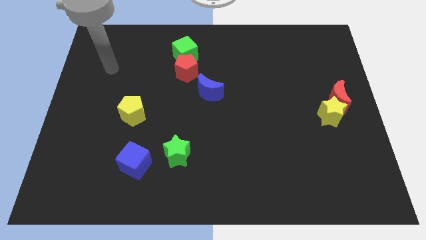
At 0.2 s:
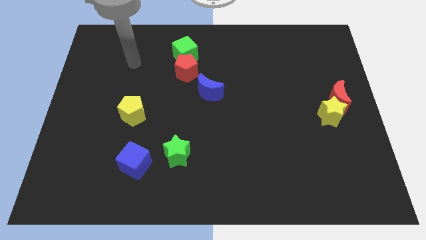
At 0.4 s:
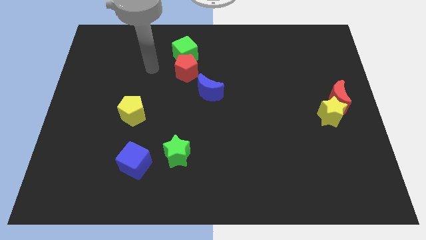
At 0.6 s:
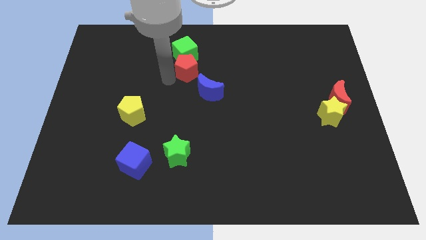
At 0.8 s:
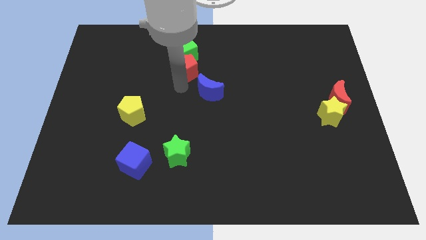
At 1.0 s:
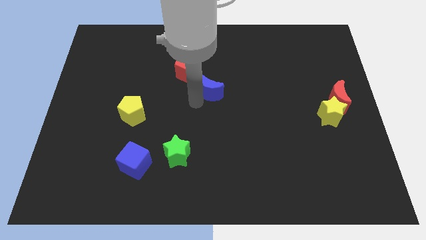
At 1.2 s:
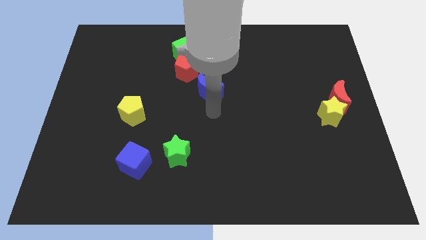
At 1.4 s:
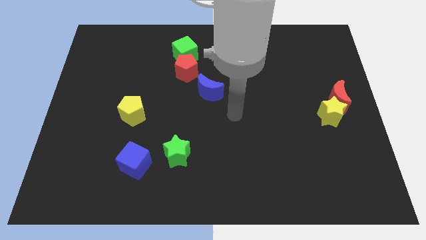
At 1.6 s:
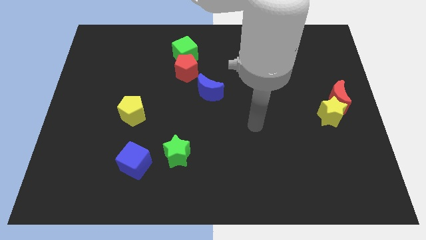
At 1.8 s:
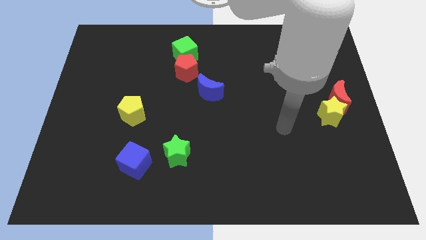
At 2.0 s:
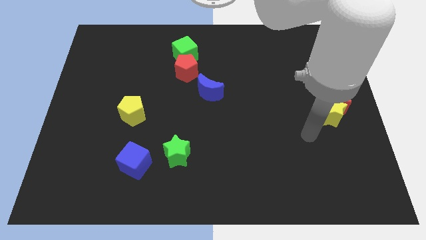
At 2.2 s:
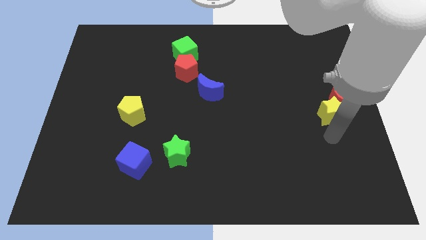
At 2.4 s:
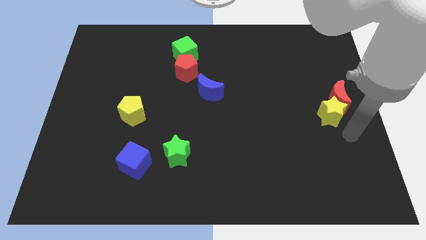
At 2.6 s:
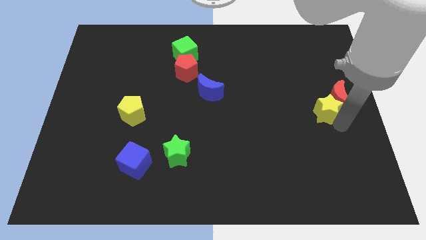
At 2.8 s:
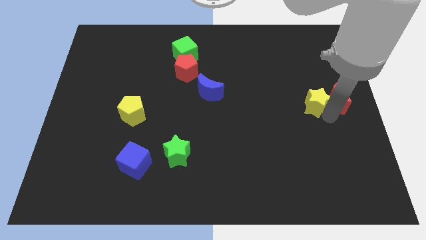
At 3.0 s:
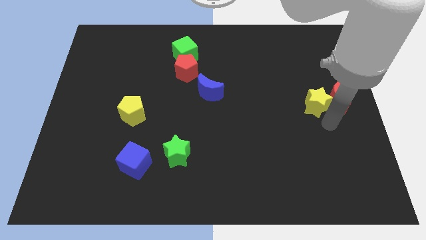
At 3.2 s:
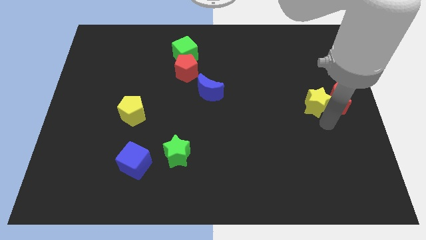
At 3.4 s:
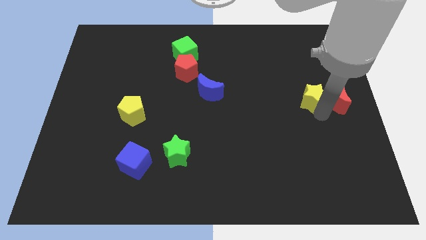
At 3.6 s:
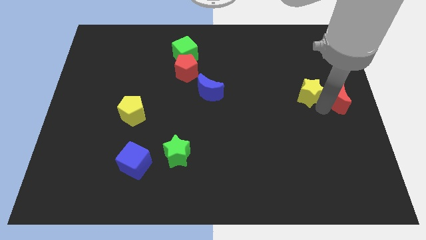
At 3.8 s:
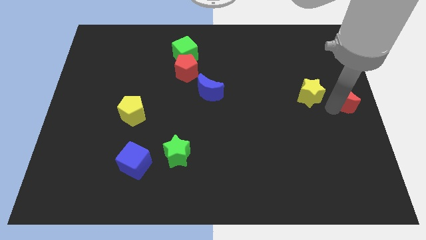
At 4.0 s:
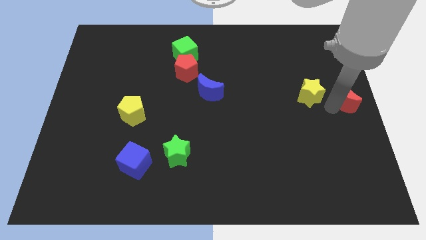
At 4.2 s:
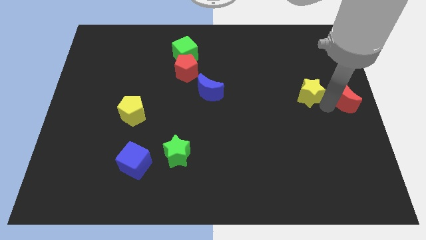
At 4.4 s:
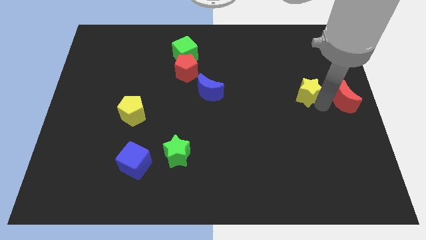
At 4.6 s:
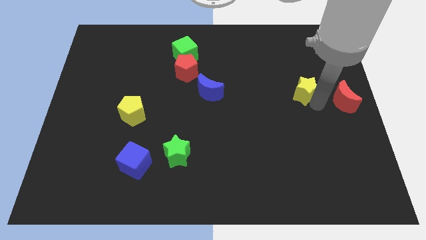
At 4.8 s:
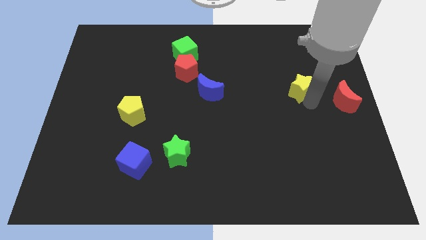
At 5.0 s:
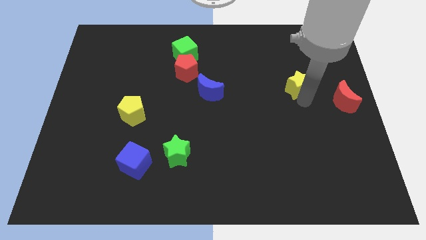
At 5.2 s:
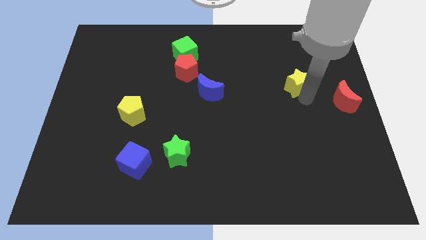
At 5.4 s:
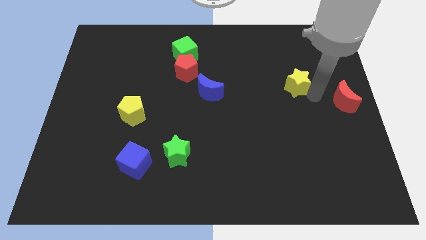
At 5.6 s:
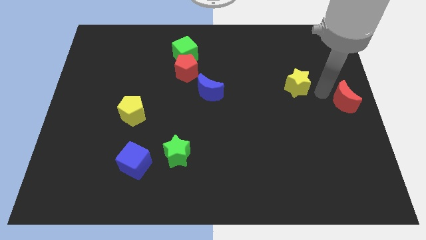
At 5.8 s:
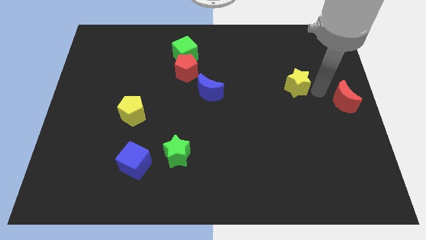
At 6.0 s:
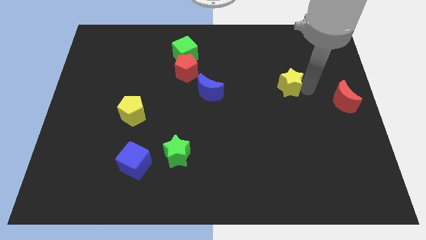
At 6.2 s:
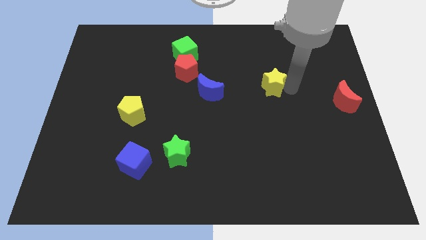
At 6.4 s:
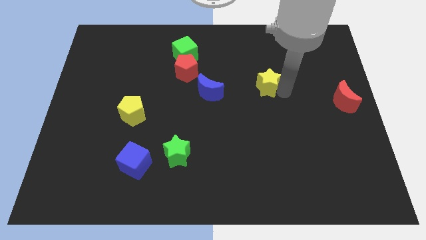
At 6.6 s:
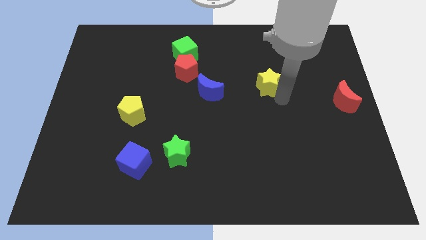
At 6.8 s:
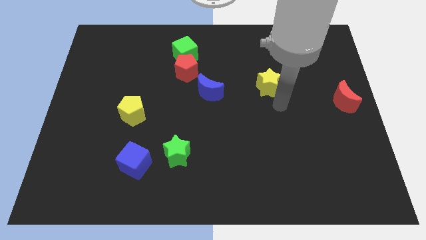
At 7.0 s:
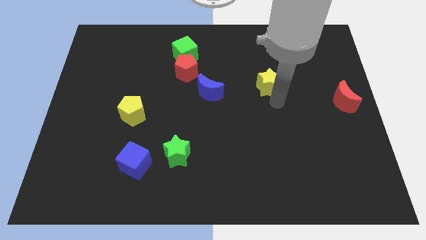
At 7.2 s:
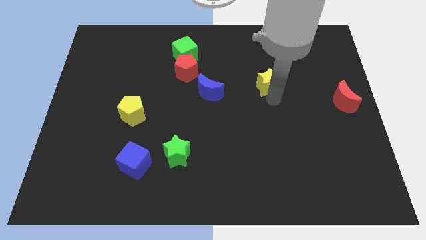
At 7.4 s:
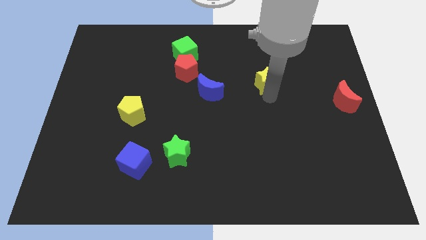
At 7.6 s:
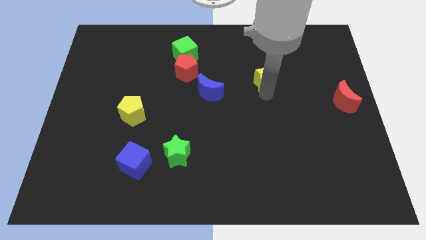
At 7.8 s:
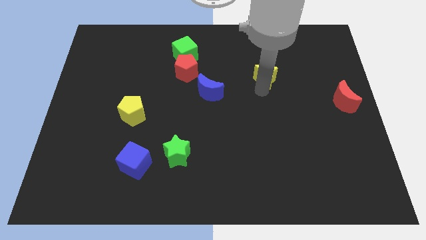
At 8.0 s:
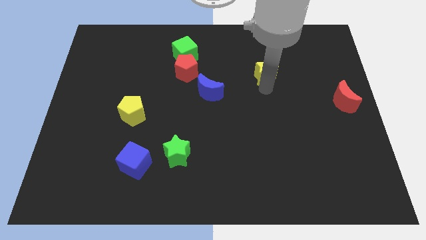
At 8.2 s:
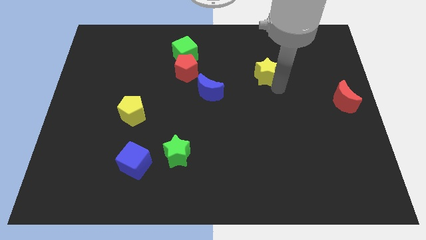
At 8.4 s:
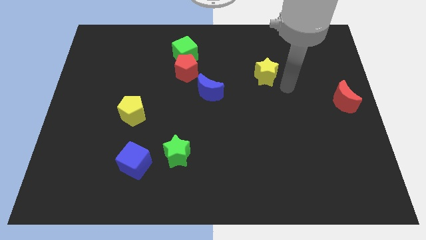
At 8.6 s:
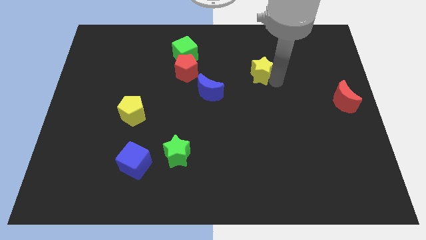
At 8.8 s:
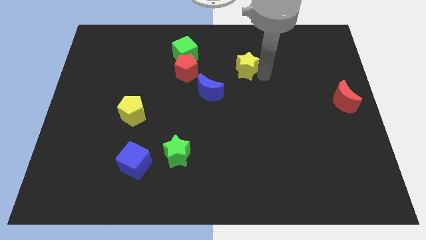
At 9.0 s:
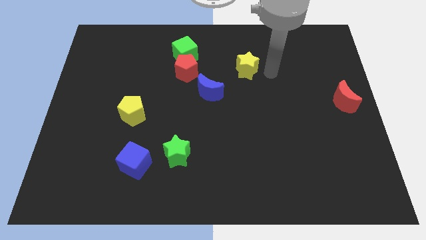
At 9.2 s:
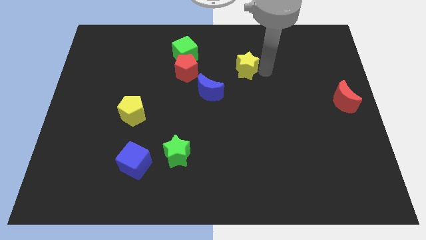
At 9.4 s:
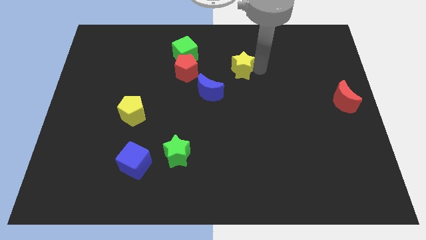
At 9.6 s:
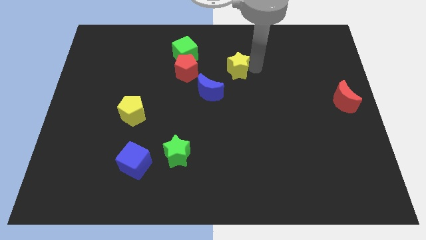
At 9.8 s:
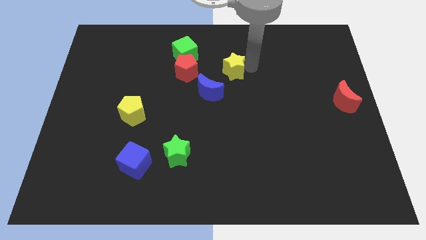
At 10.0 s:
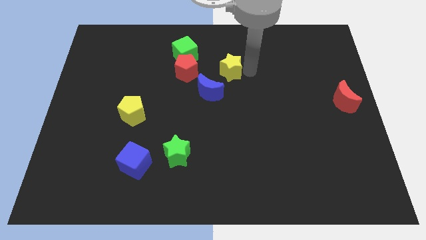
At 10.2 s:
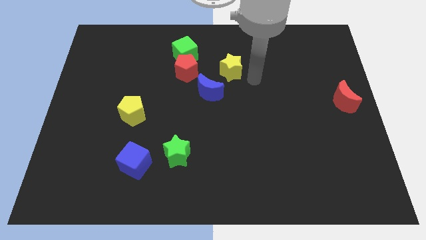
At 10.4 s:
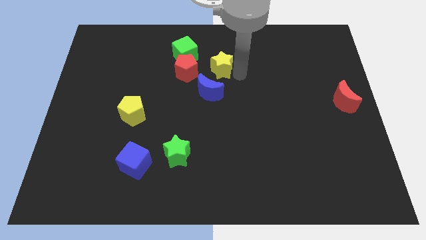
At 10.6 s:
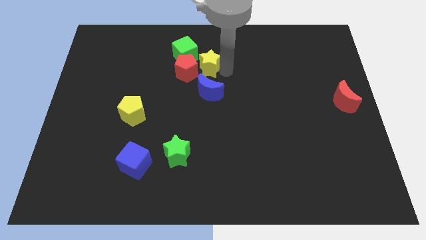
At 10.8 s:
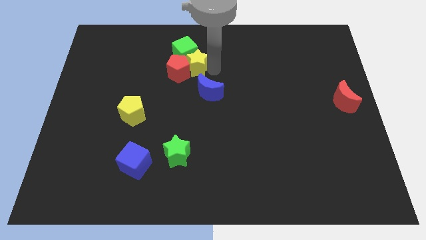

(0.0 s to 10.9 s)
push the yellow star towards the green cube
